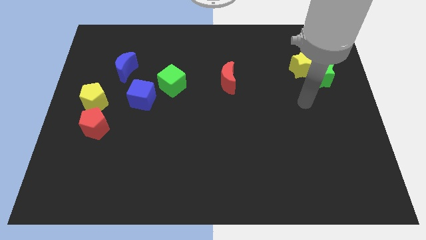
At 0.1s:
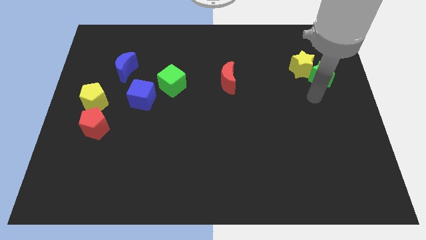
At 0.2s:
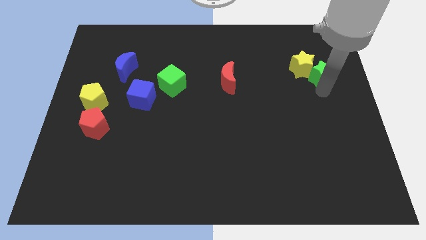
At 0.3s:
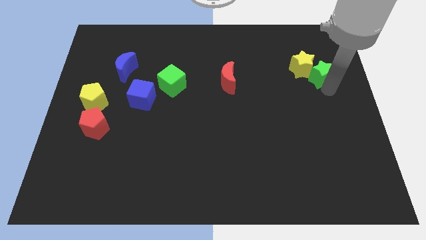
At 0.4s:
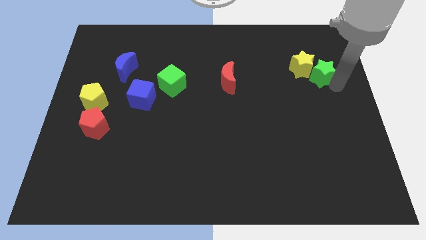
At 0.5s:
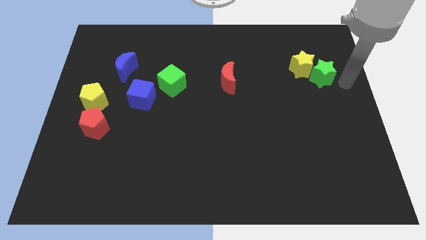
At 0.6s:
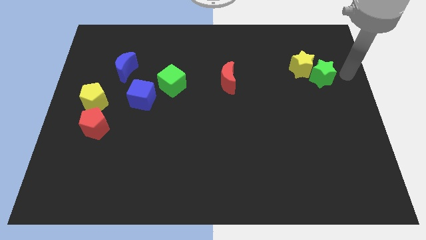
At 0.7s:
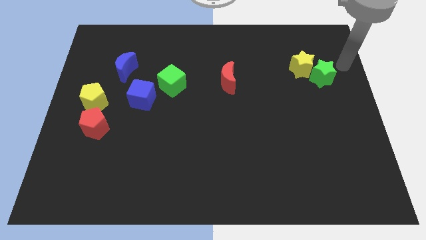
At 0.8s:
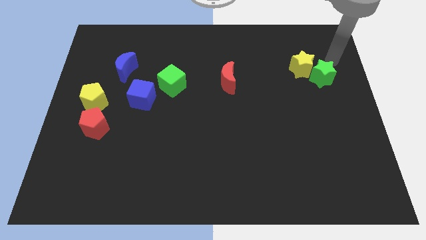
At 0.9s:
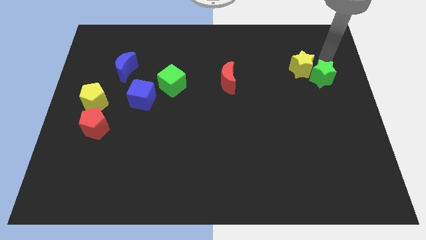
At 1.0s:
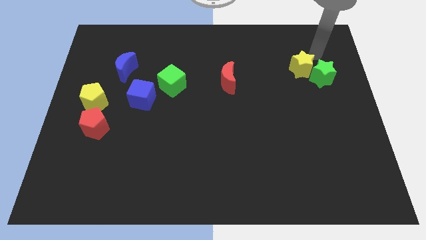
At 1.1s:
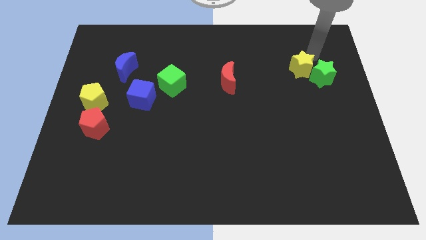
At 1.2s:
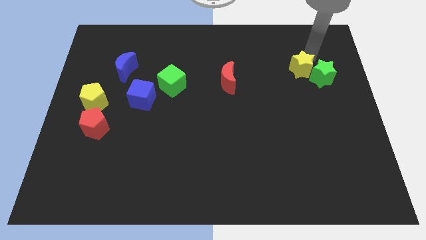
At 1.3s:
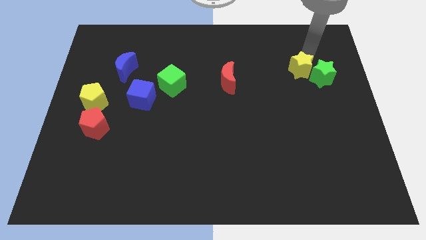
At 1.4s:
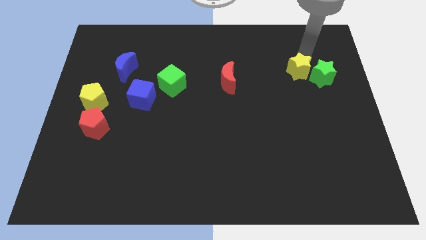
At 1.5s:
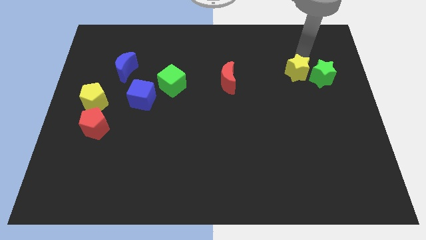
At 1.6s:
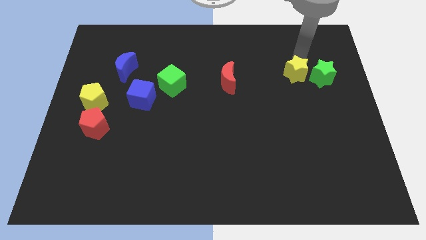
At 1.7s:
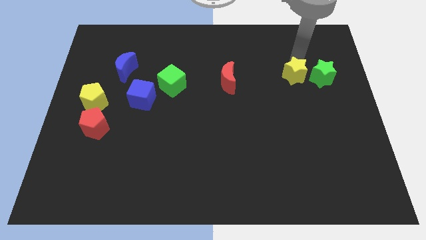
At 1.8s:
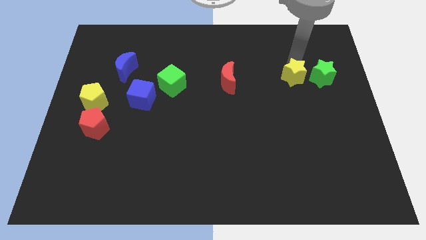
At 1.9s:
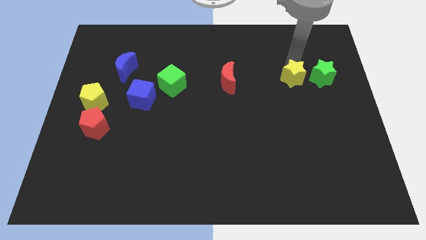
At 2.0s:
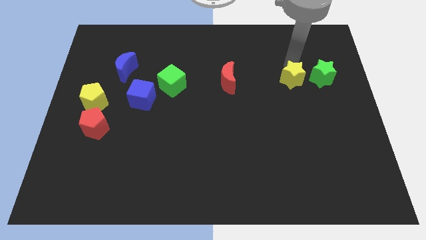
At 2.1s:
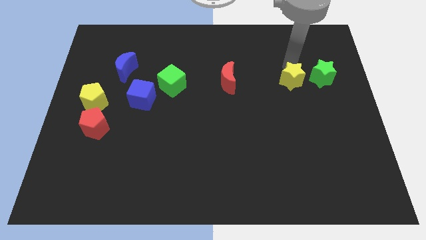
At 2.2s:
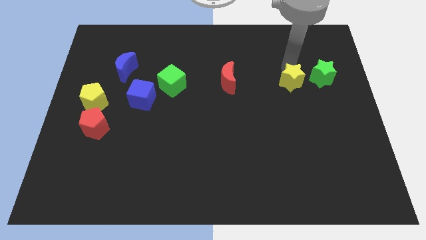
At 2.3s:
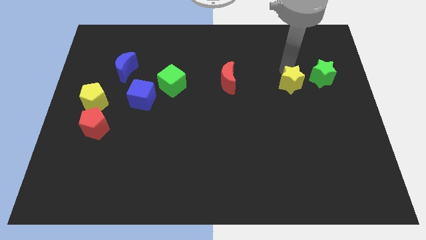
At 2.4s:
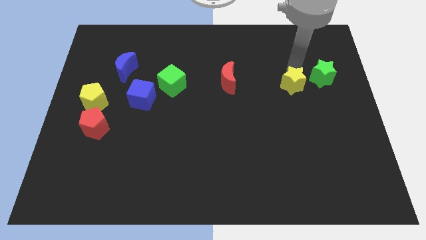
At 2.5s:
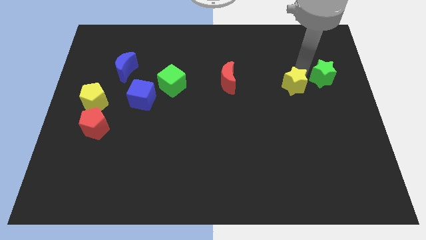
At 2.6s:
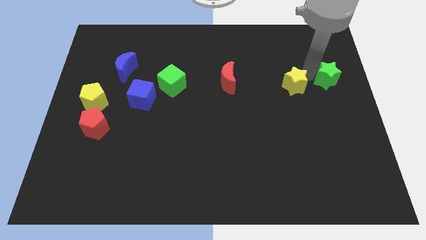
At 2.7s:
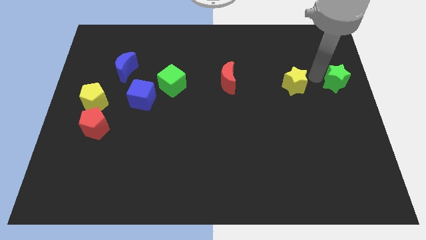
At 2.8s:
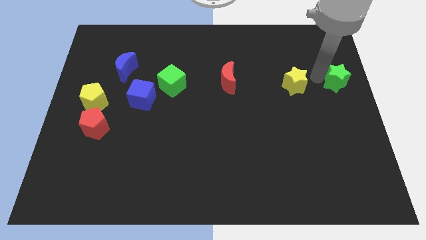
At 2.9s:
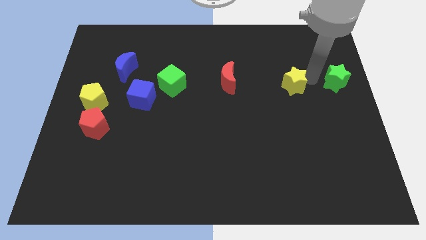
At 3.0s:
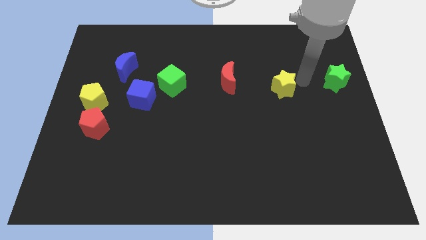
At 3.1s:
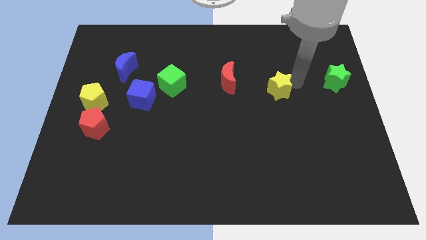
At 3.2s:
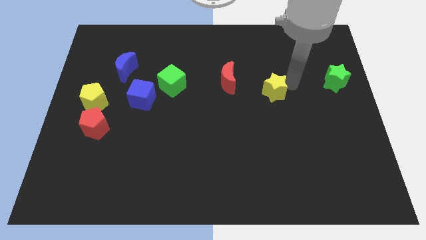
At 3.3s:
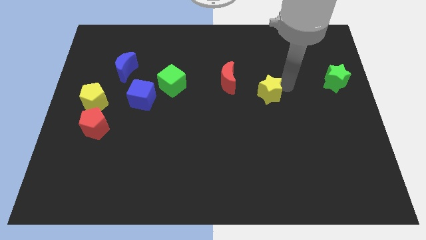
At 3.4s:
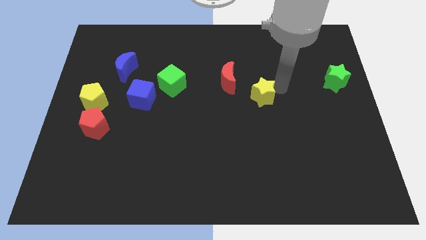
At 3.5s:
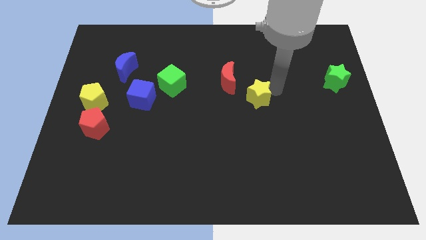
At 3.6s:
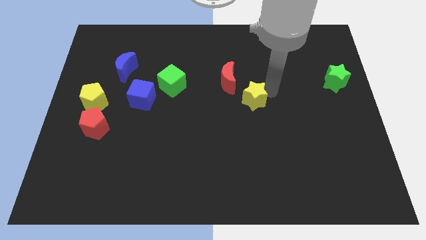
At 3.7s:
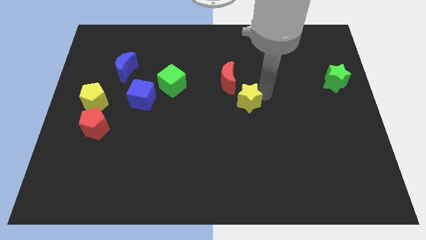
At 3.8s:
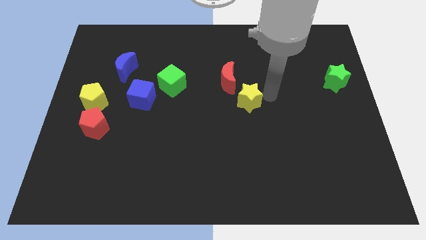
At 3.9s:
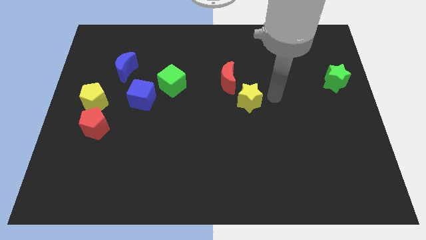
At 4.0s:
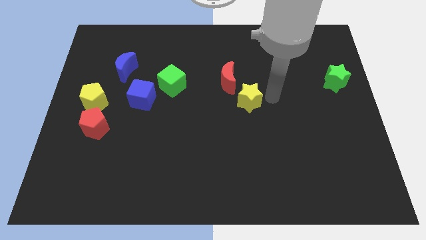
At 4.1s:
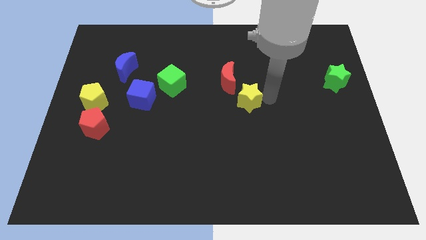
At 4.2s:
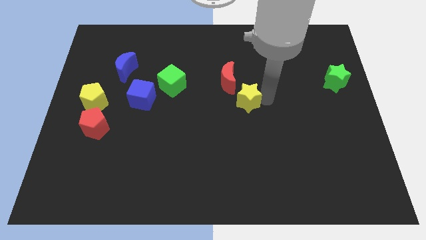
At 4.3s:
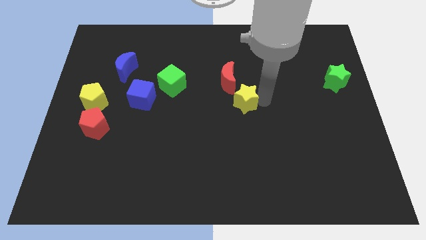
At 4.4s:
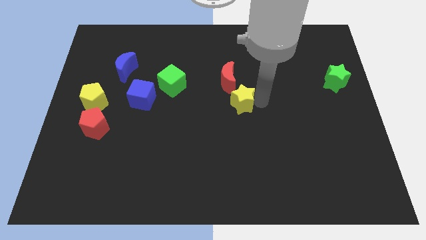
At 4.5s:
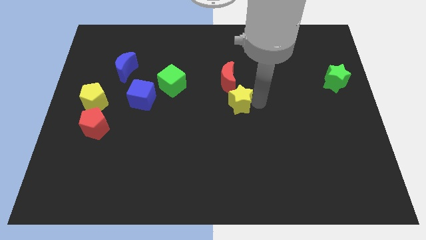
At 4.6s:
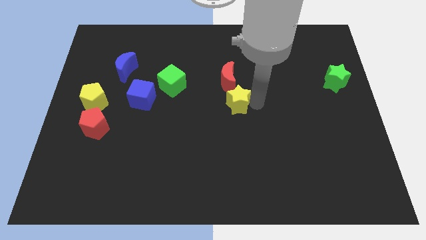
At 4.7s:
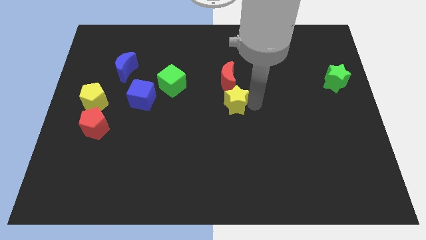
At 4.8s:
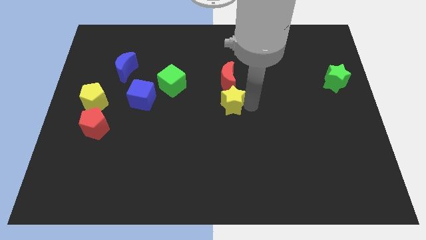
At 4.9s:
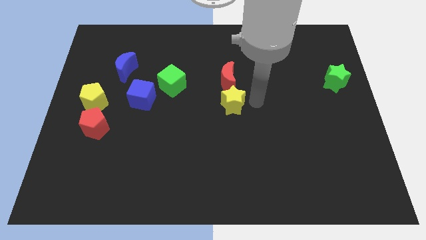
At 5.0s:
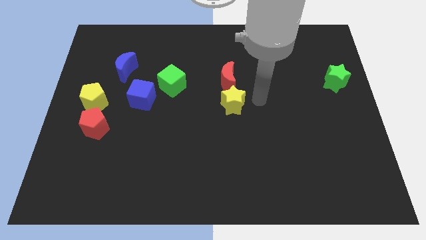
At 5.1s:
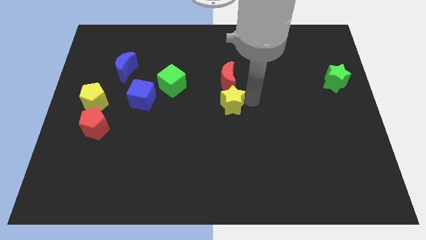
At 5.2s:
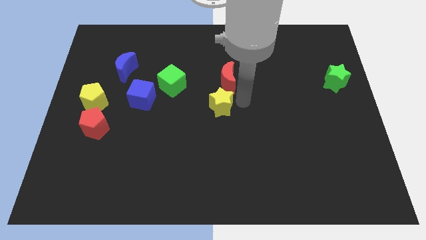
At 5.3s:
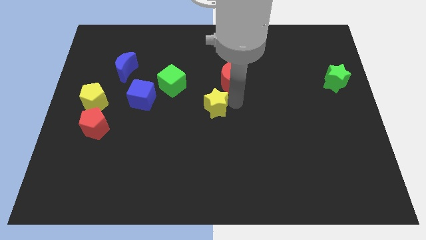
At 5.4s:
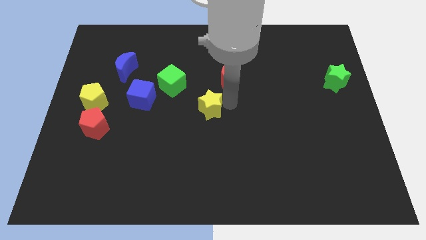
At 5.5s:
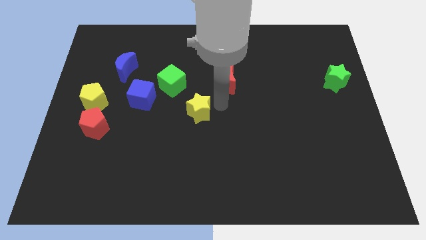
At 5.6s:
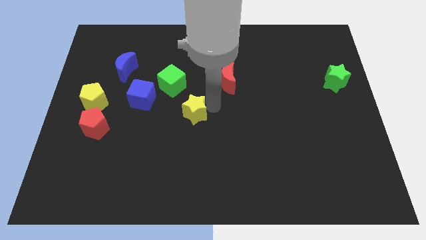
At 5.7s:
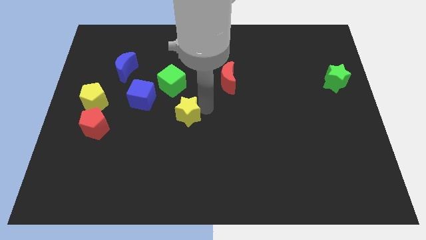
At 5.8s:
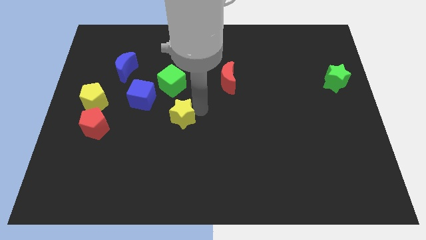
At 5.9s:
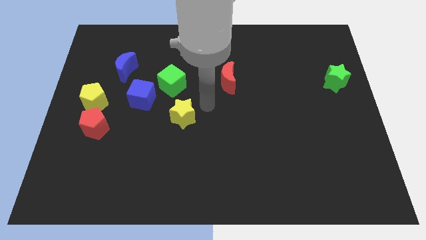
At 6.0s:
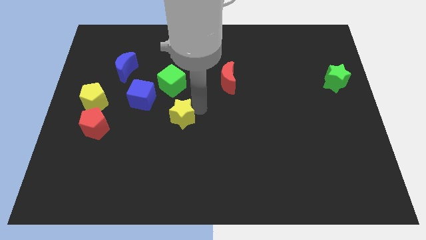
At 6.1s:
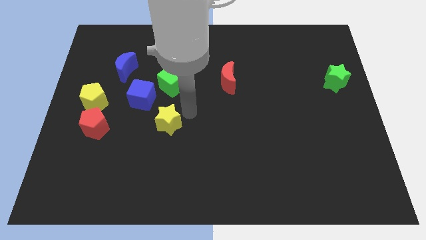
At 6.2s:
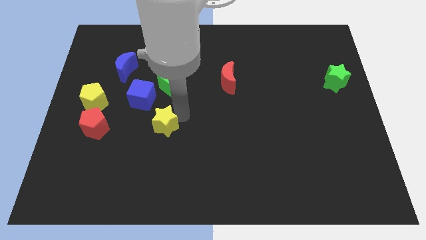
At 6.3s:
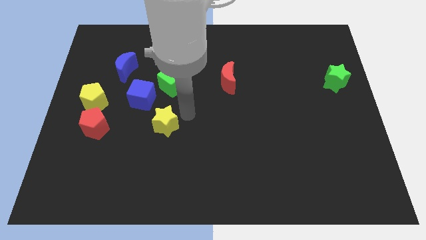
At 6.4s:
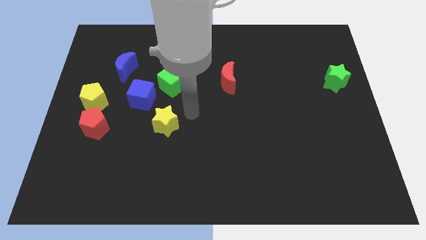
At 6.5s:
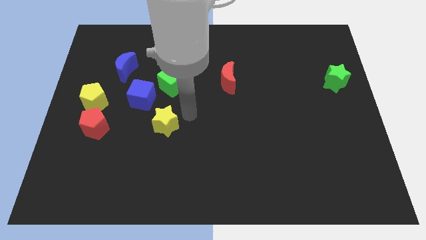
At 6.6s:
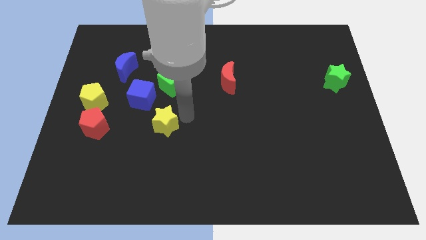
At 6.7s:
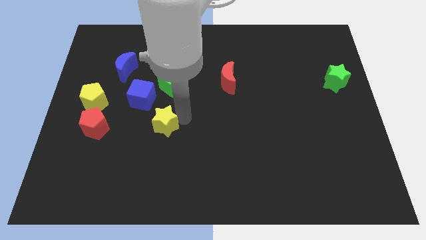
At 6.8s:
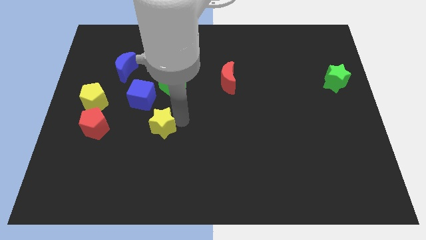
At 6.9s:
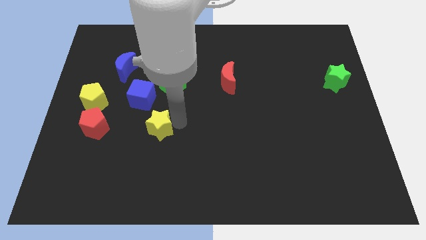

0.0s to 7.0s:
put the yellow star below the blue cube
